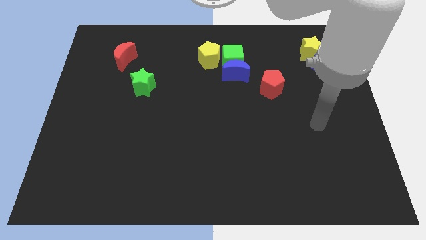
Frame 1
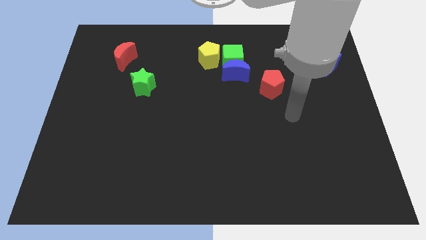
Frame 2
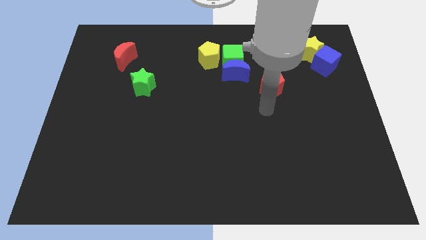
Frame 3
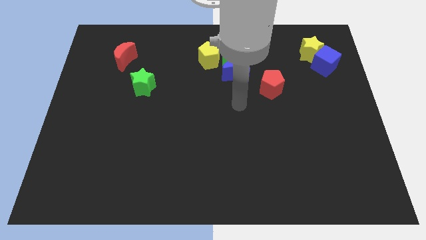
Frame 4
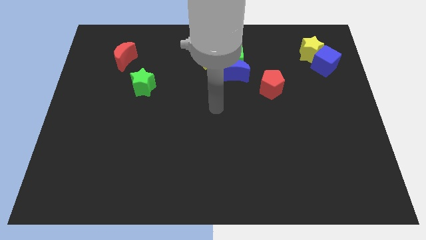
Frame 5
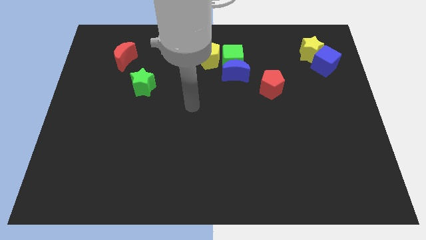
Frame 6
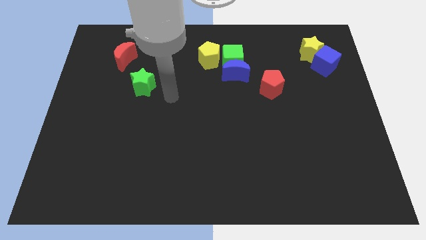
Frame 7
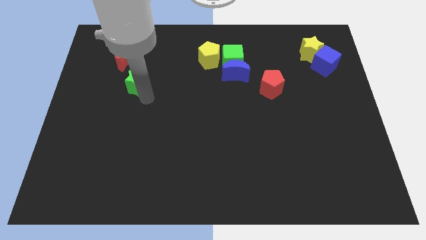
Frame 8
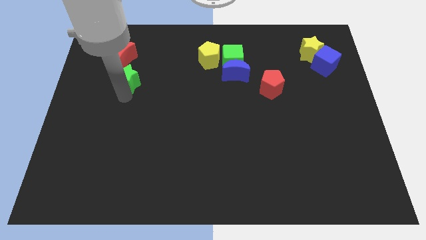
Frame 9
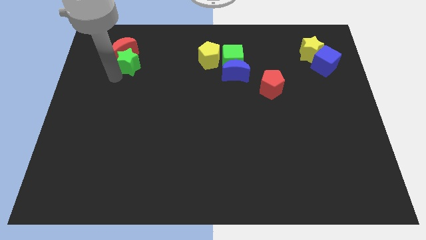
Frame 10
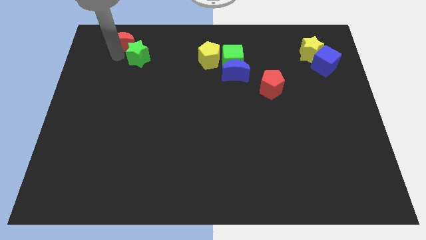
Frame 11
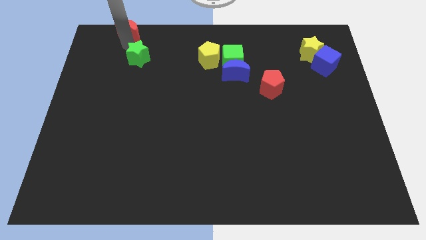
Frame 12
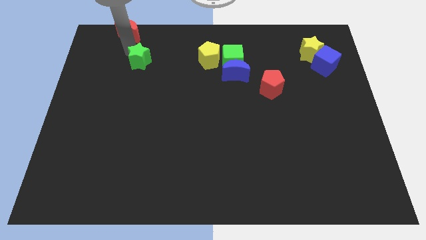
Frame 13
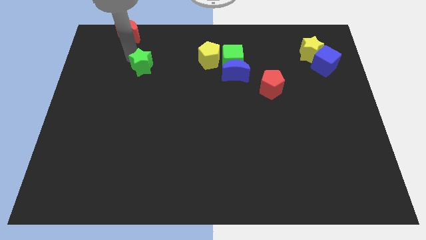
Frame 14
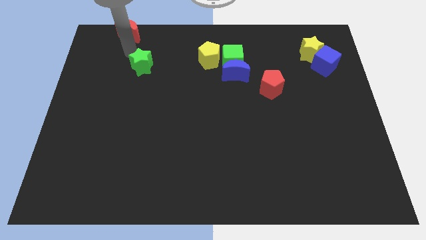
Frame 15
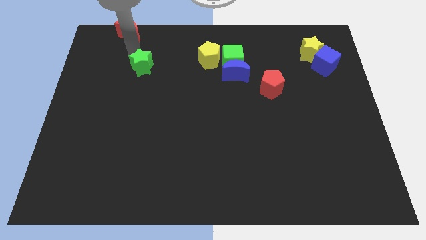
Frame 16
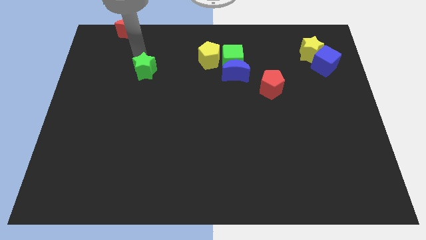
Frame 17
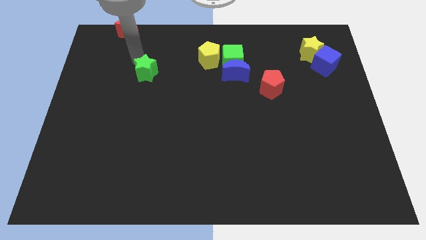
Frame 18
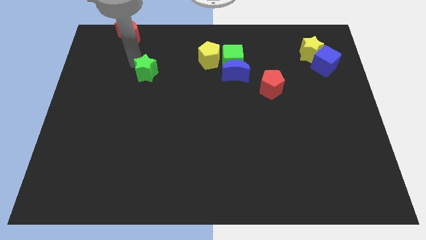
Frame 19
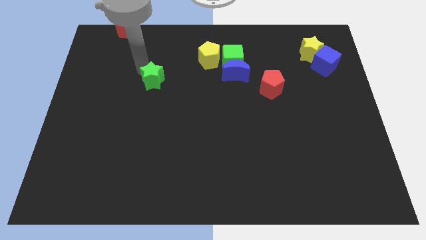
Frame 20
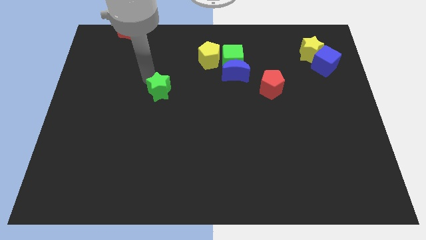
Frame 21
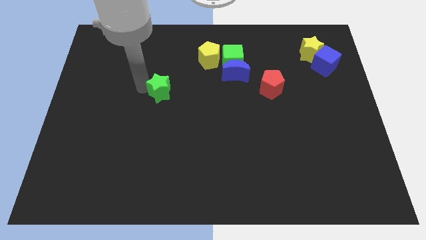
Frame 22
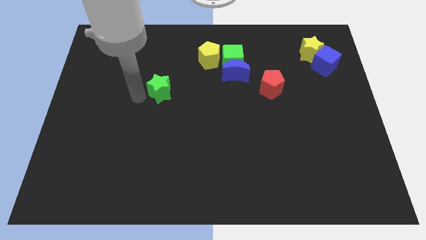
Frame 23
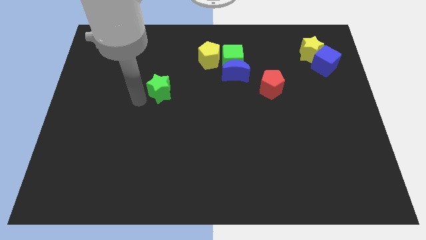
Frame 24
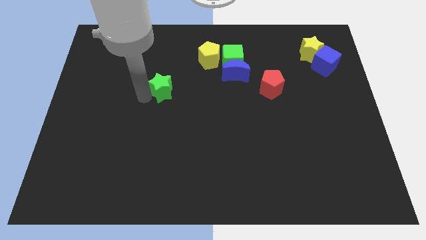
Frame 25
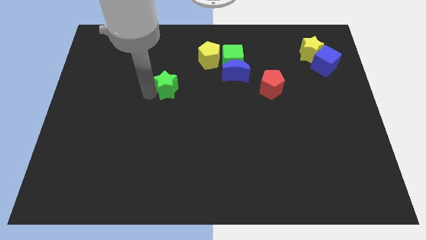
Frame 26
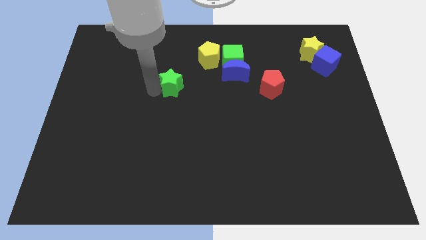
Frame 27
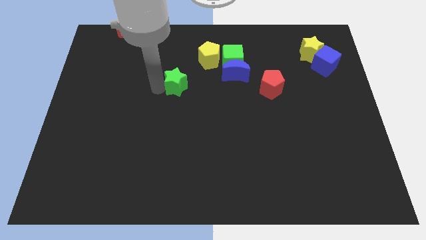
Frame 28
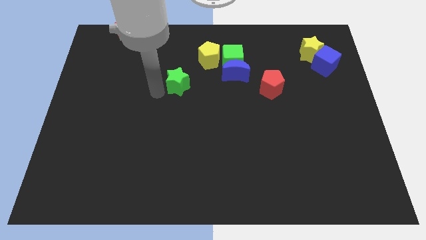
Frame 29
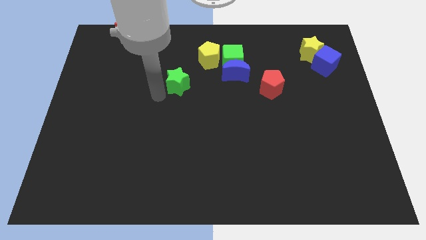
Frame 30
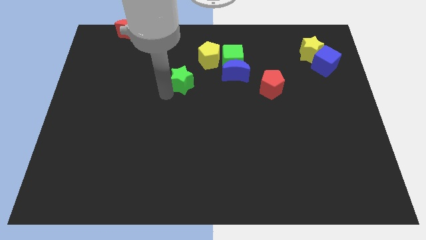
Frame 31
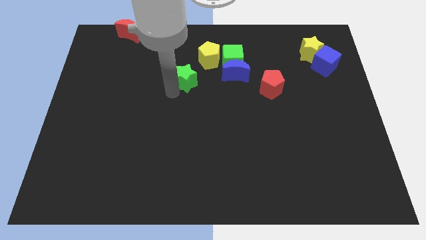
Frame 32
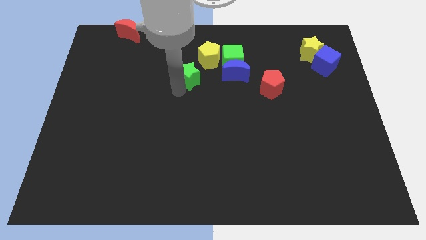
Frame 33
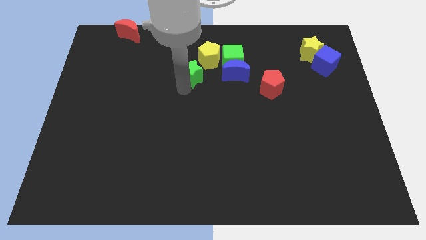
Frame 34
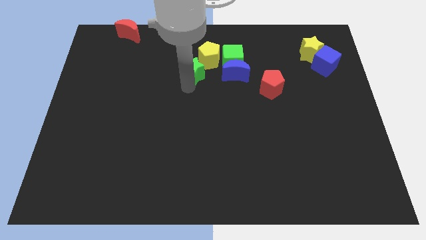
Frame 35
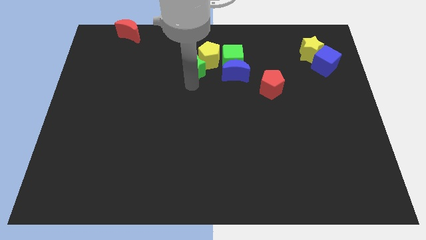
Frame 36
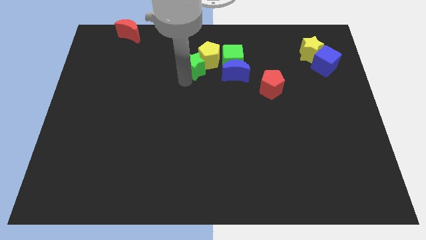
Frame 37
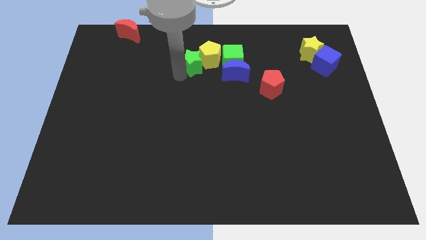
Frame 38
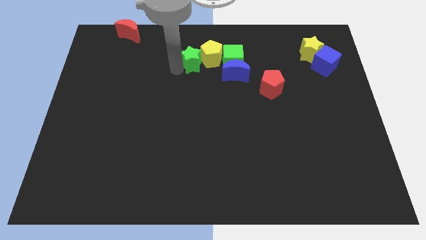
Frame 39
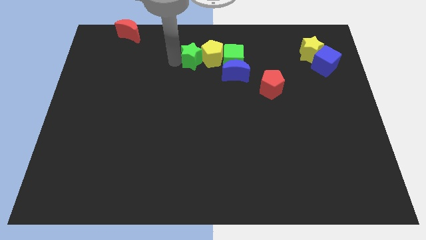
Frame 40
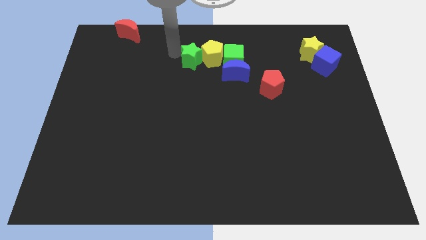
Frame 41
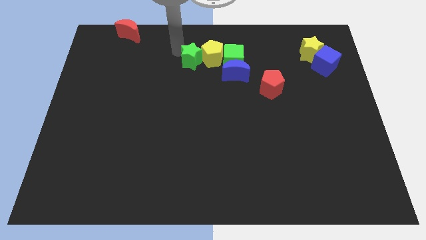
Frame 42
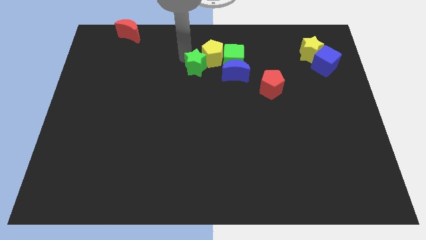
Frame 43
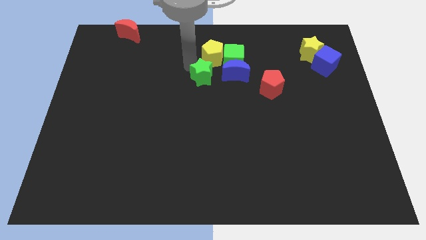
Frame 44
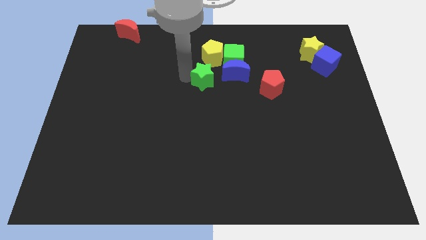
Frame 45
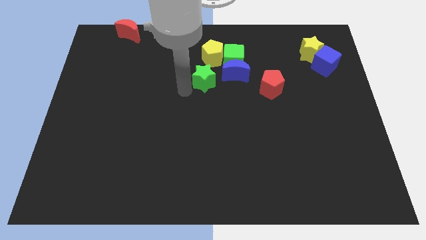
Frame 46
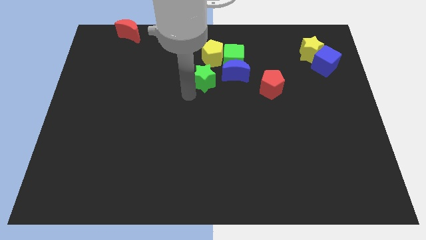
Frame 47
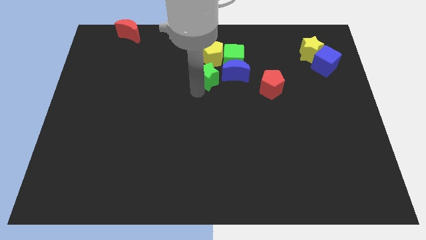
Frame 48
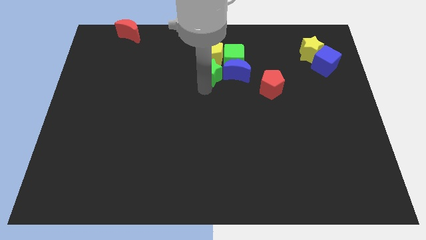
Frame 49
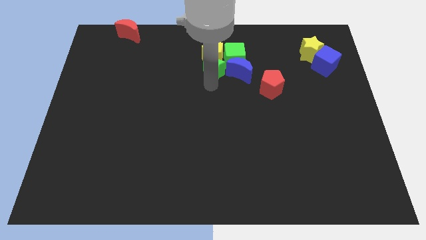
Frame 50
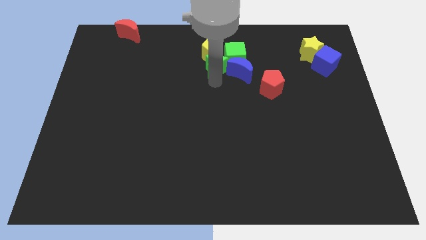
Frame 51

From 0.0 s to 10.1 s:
push the green star next to the green cube

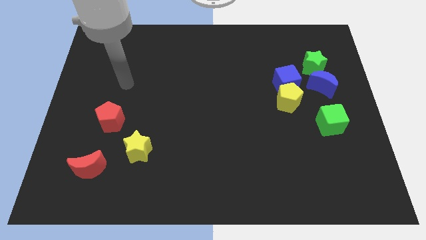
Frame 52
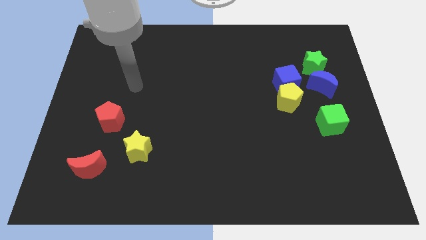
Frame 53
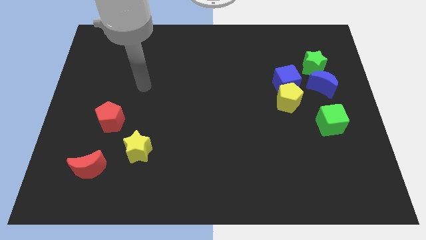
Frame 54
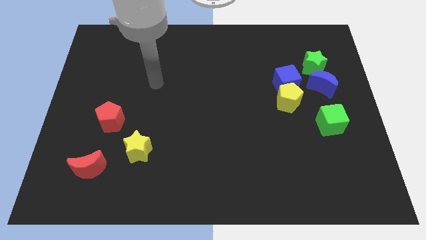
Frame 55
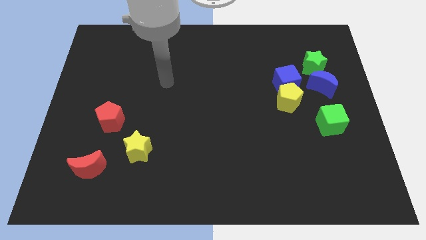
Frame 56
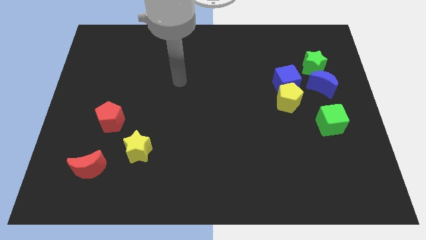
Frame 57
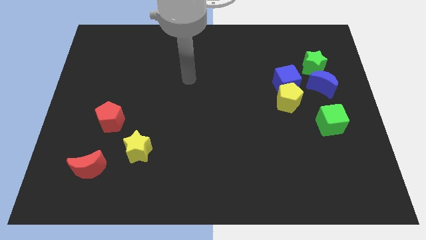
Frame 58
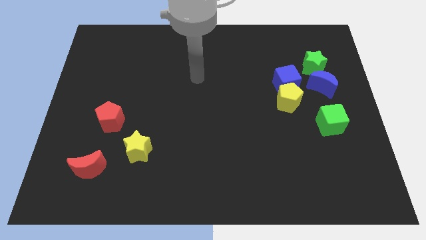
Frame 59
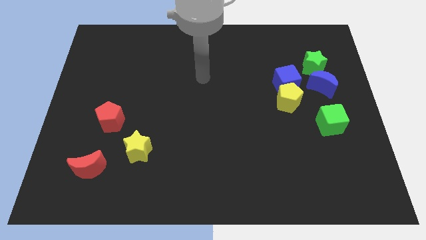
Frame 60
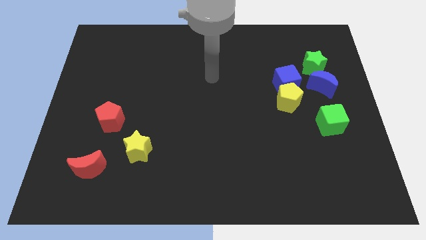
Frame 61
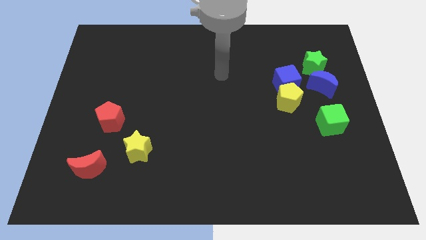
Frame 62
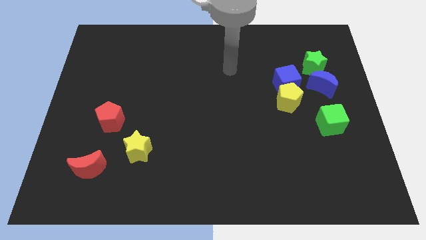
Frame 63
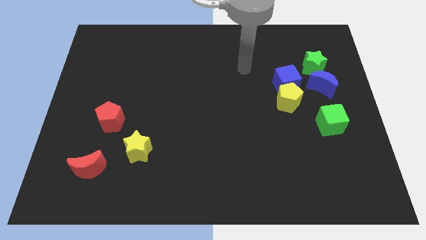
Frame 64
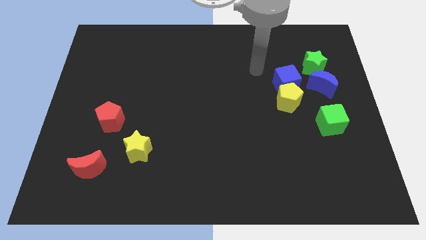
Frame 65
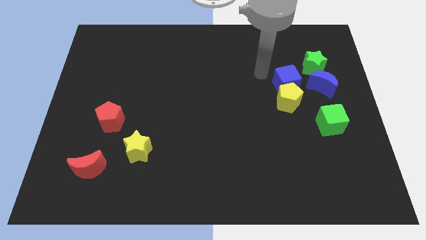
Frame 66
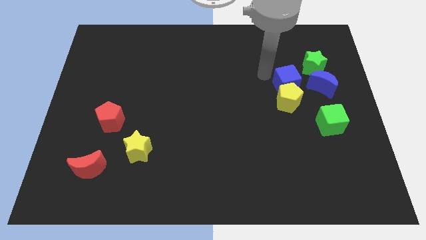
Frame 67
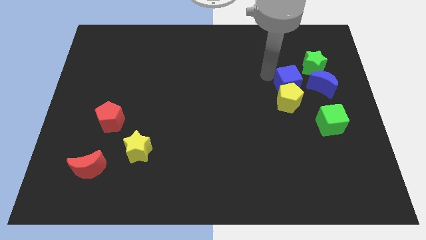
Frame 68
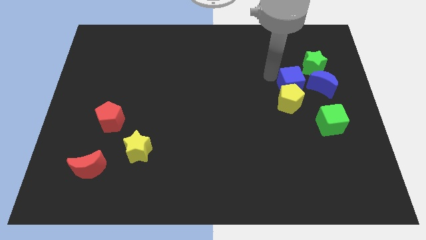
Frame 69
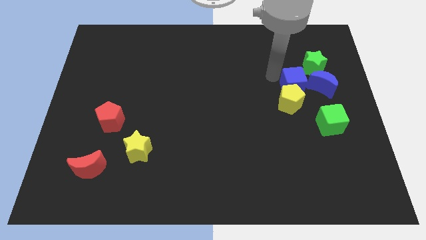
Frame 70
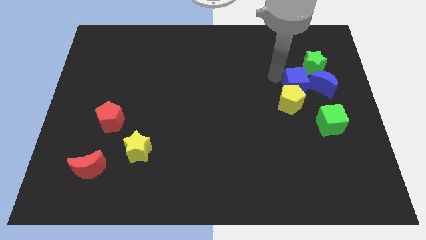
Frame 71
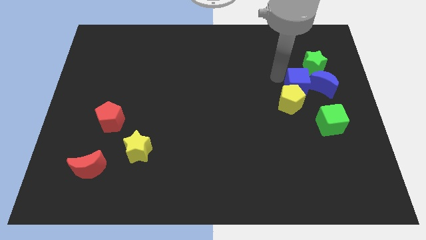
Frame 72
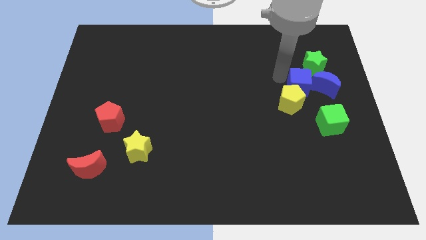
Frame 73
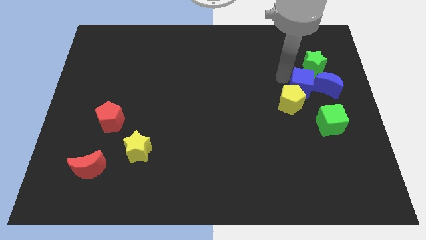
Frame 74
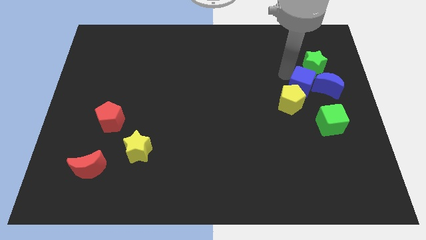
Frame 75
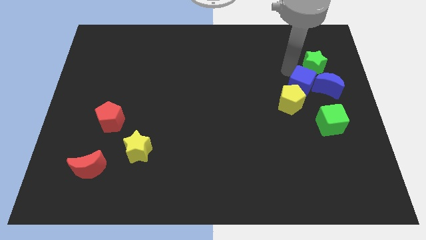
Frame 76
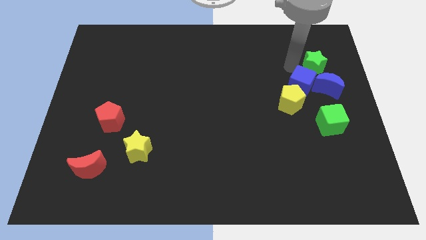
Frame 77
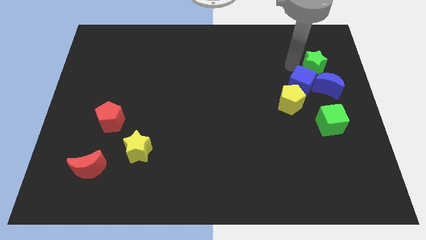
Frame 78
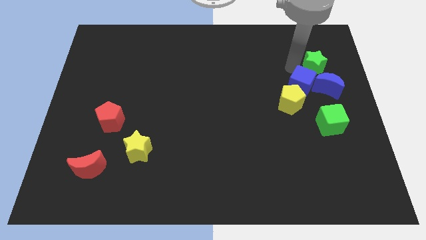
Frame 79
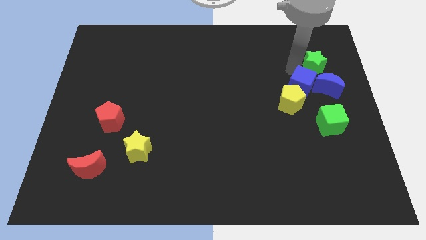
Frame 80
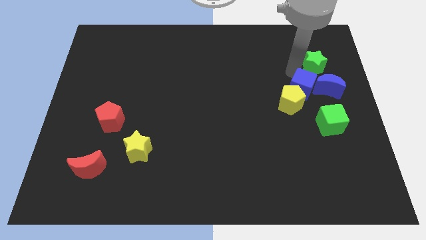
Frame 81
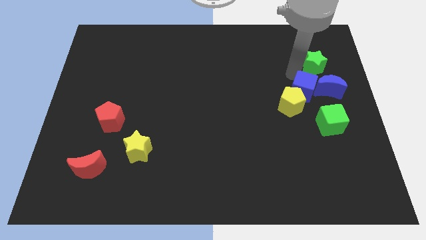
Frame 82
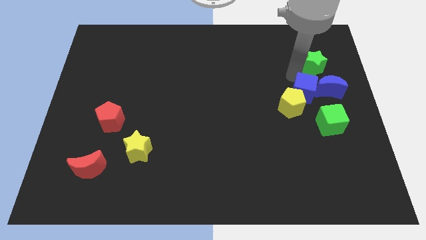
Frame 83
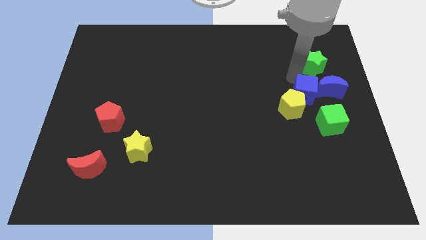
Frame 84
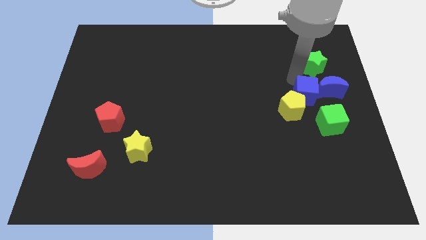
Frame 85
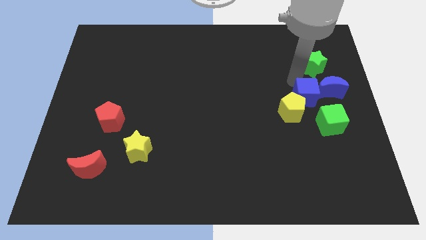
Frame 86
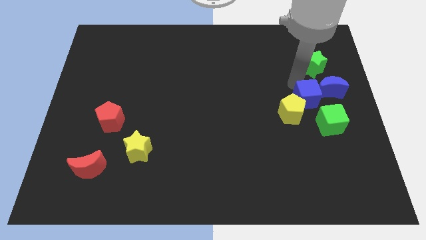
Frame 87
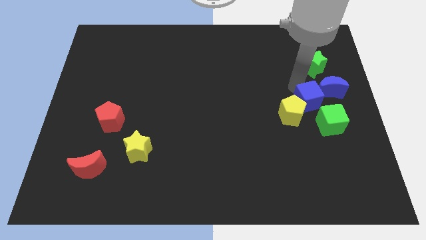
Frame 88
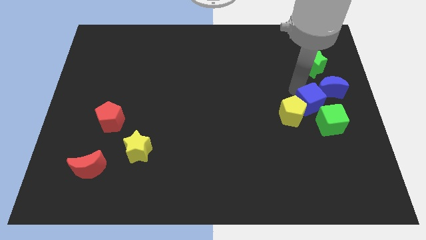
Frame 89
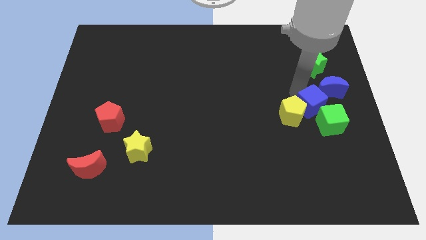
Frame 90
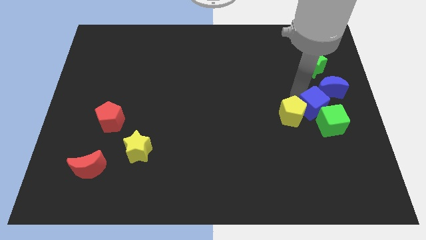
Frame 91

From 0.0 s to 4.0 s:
put the blue cube towards the green cube
